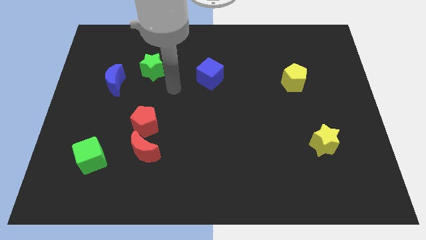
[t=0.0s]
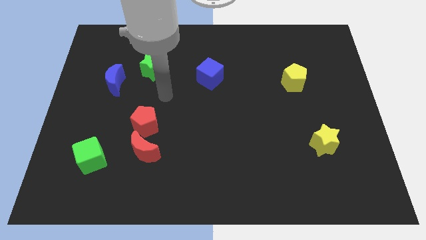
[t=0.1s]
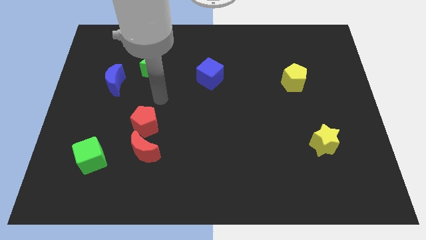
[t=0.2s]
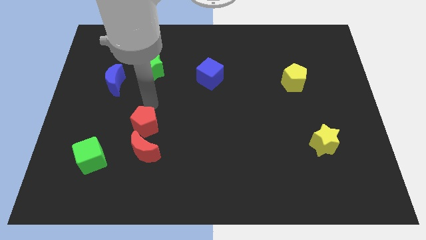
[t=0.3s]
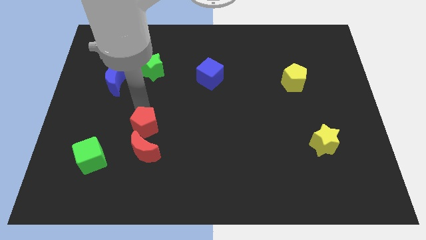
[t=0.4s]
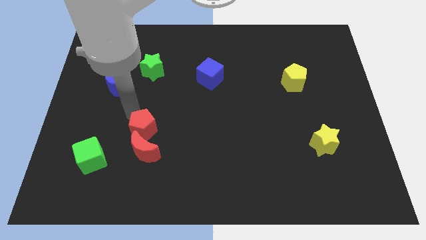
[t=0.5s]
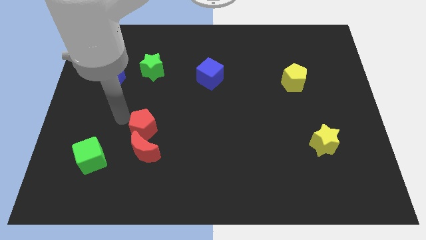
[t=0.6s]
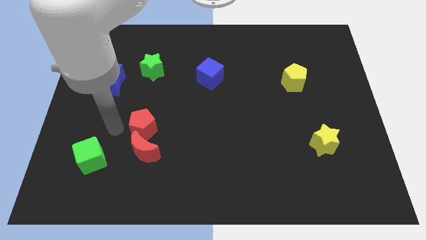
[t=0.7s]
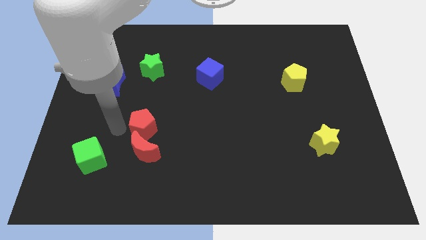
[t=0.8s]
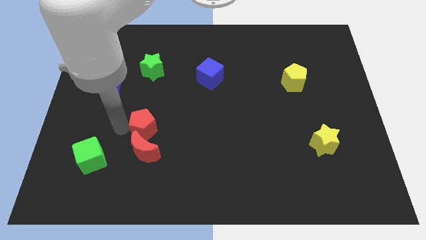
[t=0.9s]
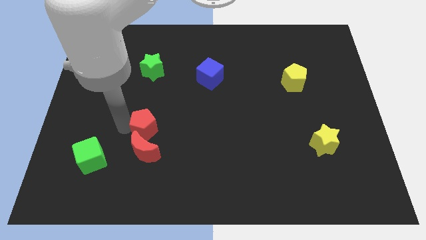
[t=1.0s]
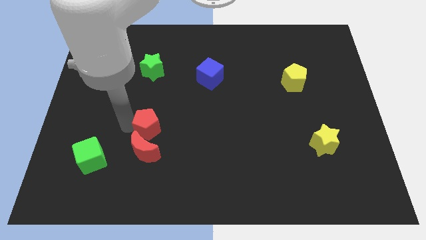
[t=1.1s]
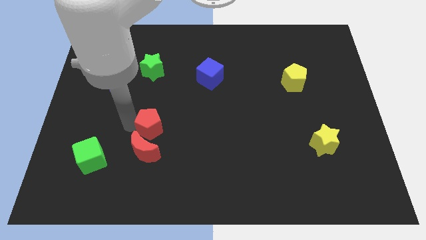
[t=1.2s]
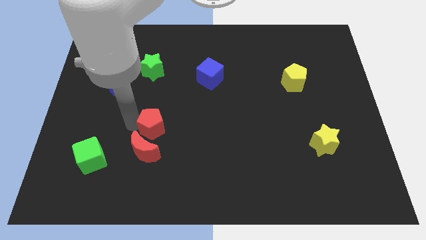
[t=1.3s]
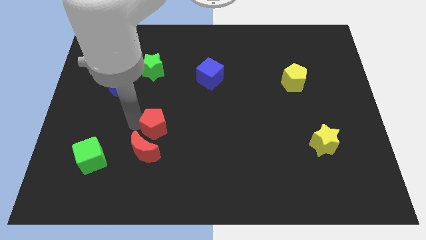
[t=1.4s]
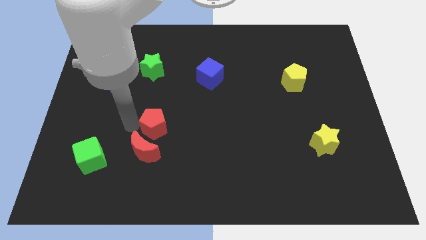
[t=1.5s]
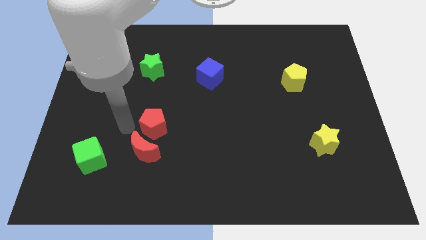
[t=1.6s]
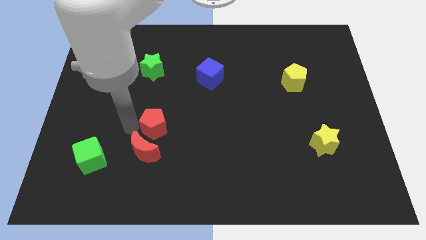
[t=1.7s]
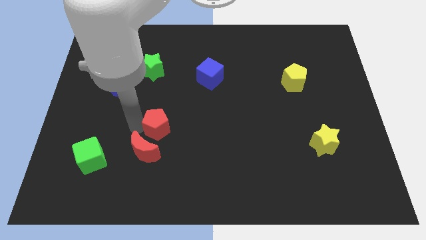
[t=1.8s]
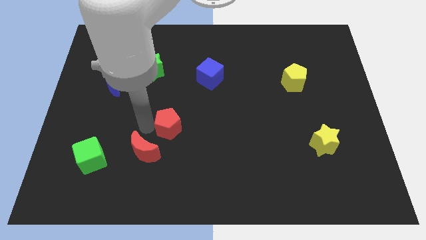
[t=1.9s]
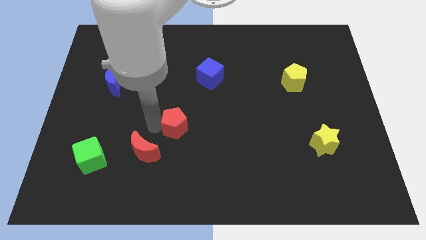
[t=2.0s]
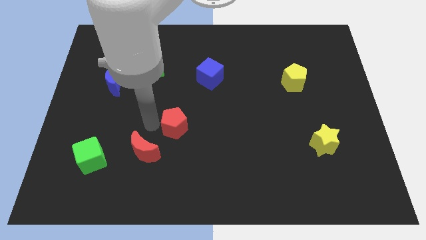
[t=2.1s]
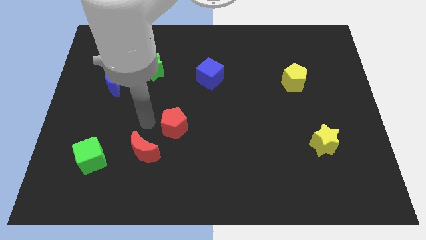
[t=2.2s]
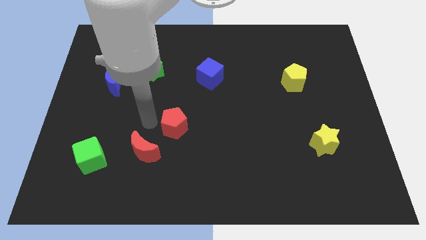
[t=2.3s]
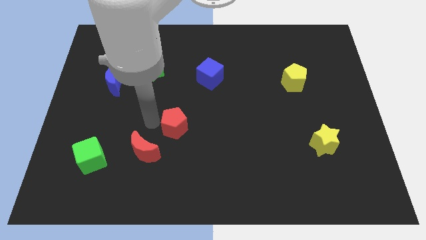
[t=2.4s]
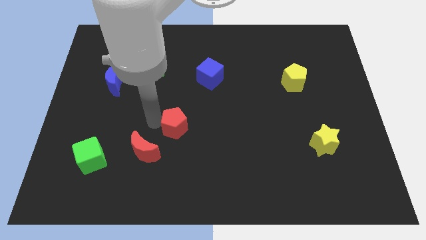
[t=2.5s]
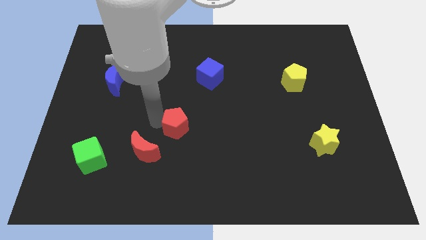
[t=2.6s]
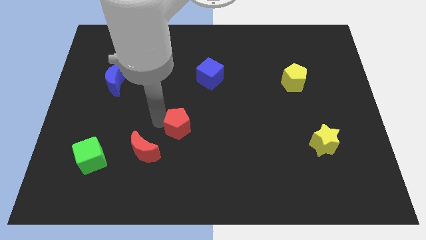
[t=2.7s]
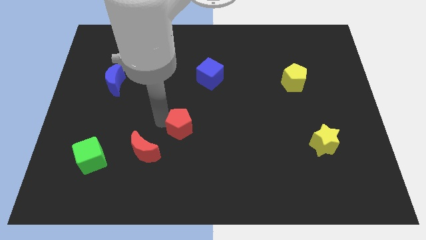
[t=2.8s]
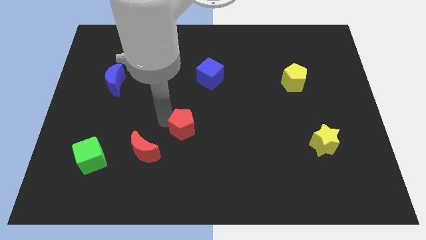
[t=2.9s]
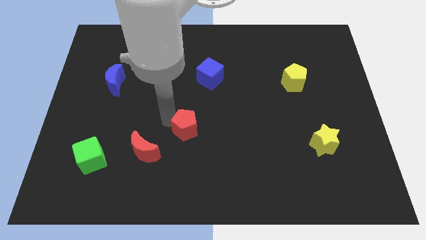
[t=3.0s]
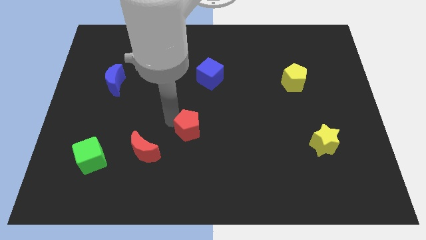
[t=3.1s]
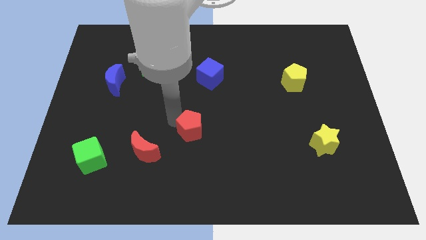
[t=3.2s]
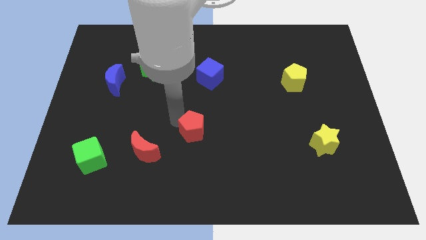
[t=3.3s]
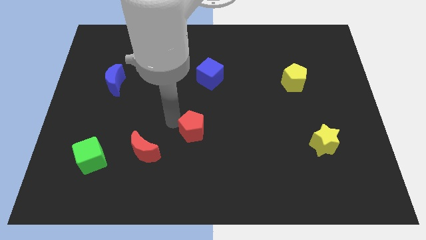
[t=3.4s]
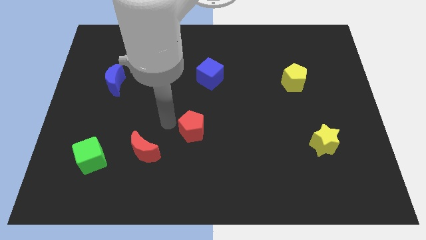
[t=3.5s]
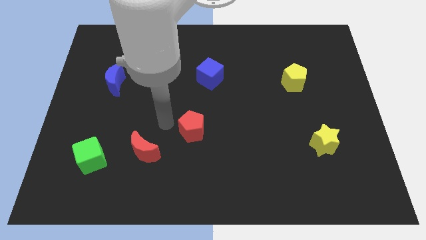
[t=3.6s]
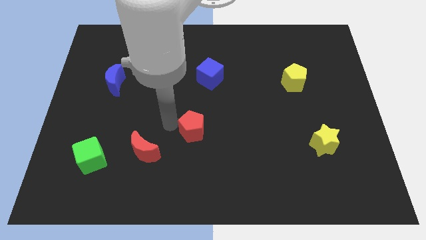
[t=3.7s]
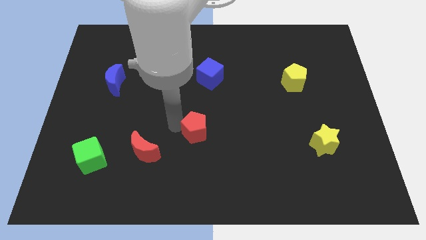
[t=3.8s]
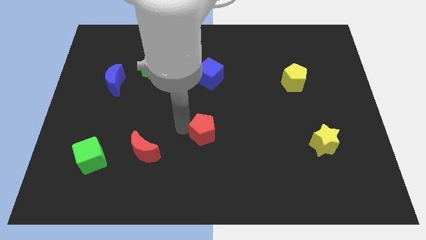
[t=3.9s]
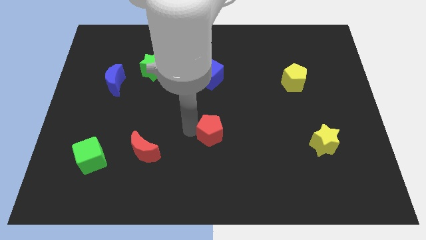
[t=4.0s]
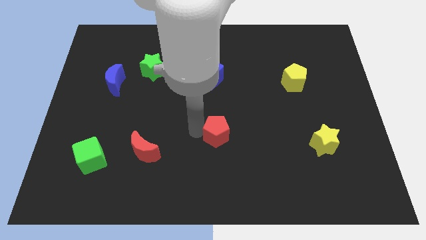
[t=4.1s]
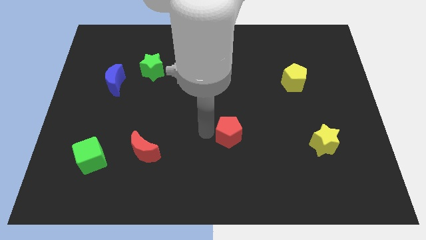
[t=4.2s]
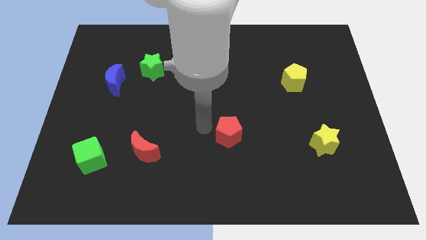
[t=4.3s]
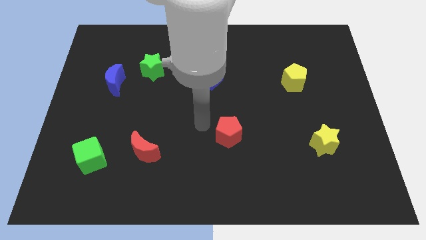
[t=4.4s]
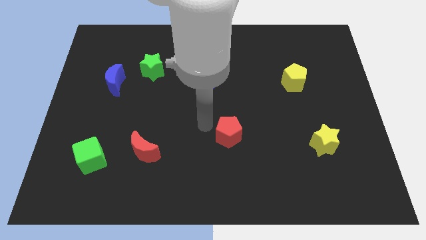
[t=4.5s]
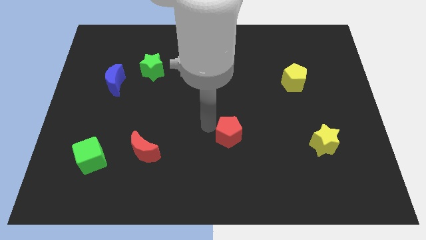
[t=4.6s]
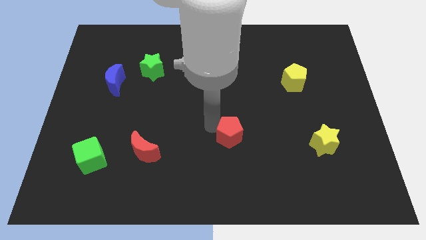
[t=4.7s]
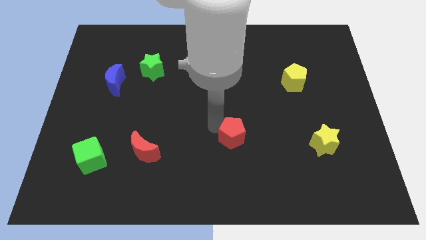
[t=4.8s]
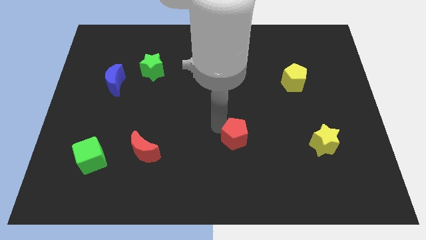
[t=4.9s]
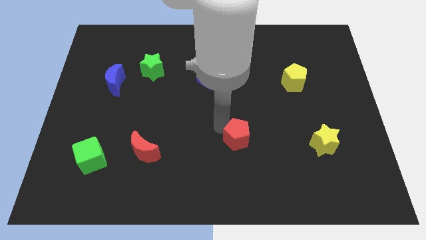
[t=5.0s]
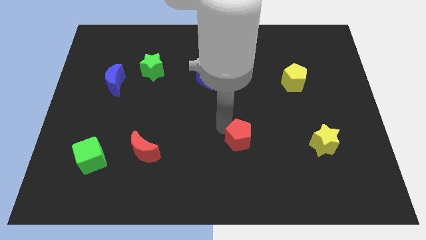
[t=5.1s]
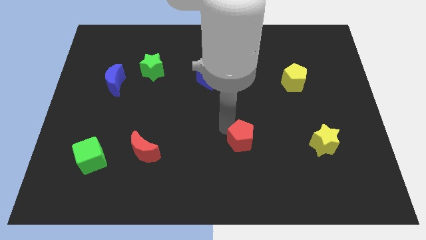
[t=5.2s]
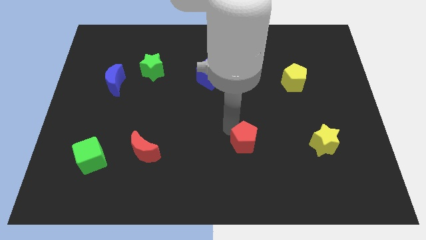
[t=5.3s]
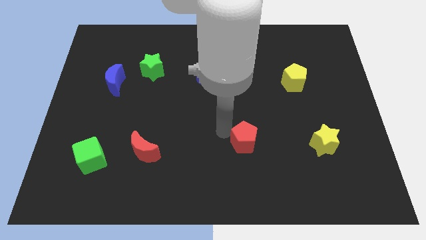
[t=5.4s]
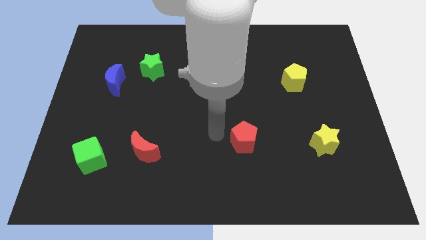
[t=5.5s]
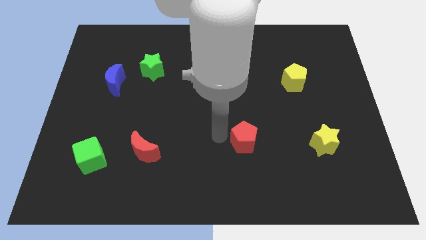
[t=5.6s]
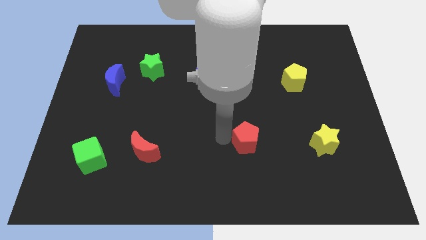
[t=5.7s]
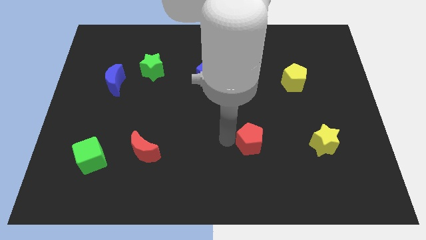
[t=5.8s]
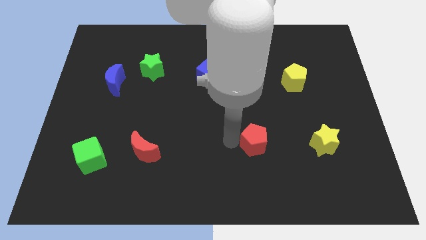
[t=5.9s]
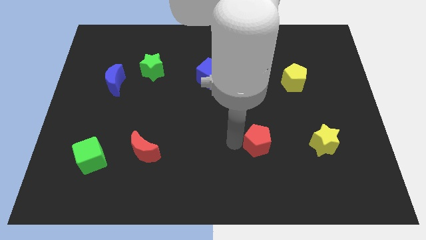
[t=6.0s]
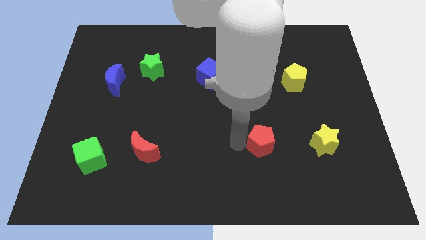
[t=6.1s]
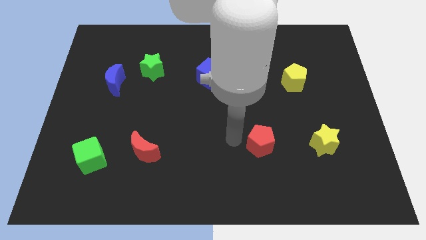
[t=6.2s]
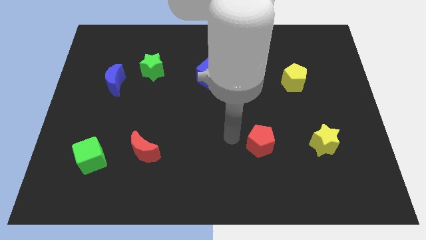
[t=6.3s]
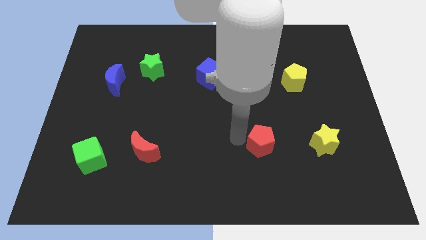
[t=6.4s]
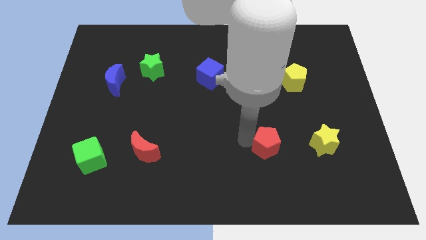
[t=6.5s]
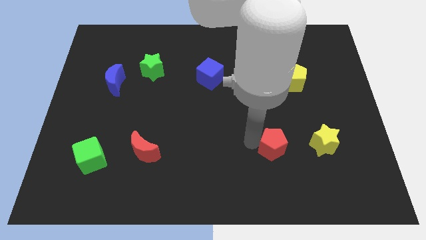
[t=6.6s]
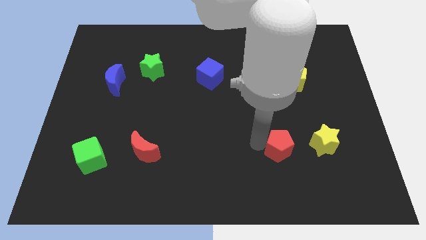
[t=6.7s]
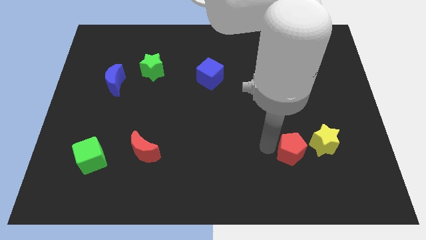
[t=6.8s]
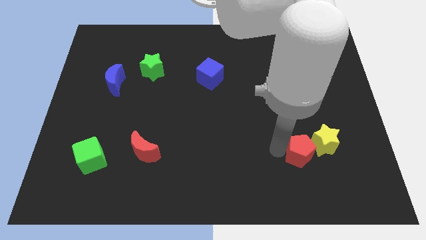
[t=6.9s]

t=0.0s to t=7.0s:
put the red pentagon to the yellow star

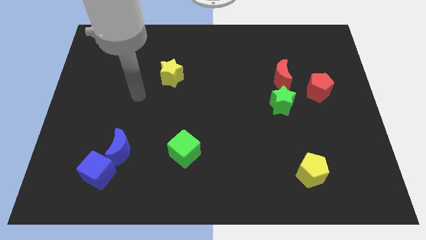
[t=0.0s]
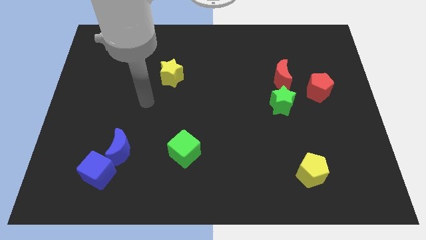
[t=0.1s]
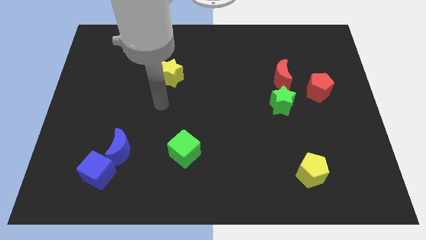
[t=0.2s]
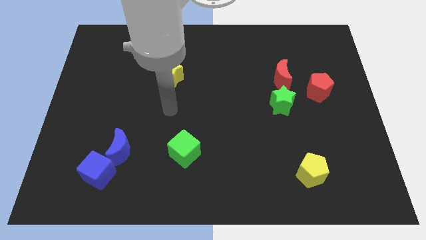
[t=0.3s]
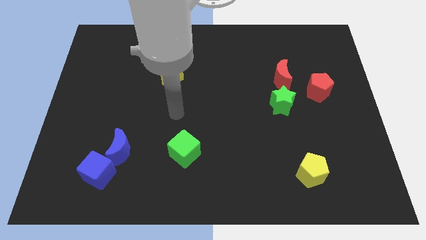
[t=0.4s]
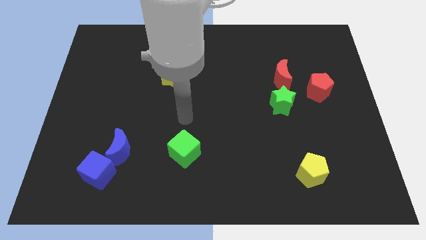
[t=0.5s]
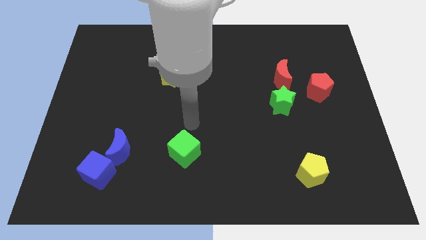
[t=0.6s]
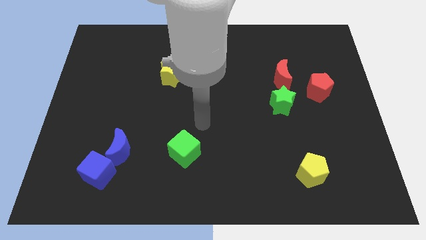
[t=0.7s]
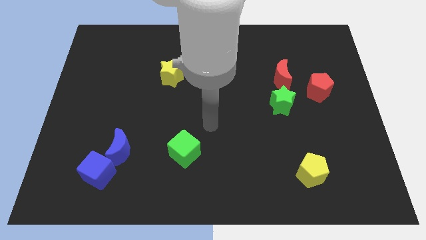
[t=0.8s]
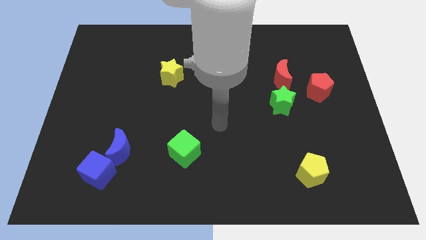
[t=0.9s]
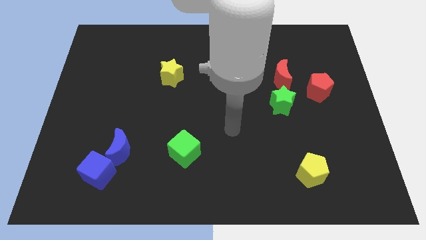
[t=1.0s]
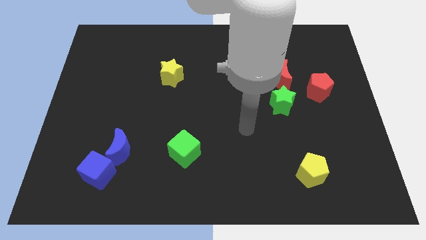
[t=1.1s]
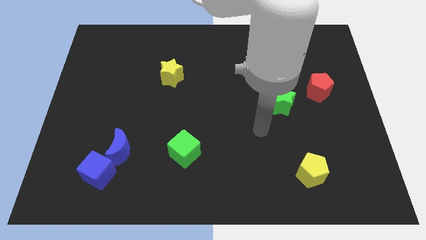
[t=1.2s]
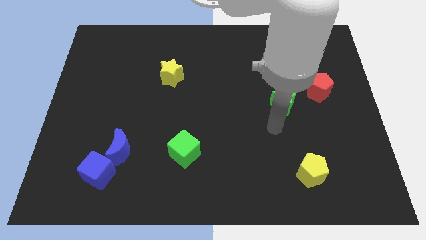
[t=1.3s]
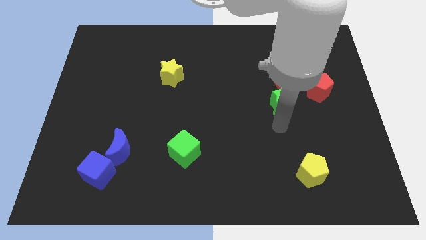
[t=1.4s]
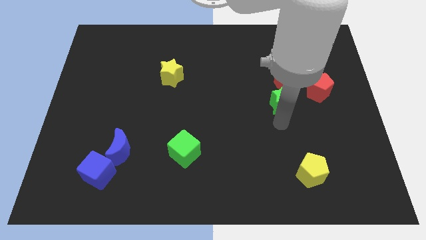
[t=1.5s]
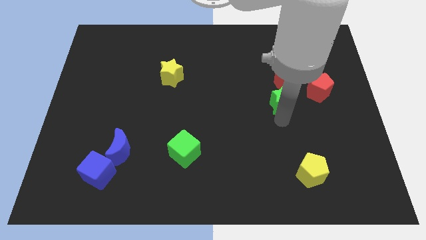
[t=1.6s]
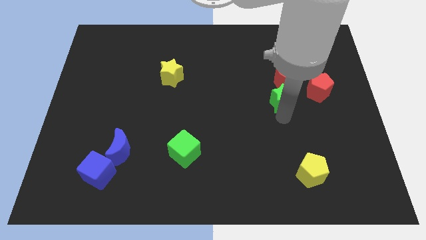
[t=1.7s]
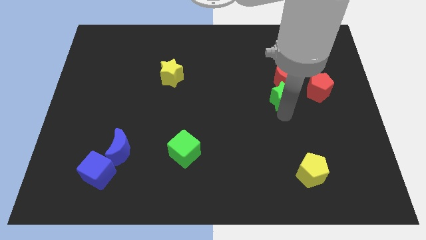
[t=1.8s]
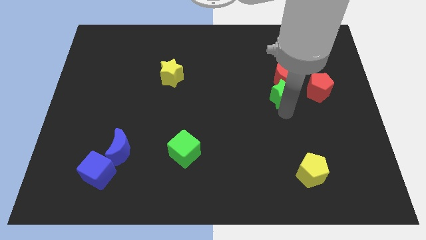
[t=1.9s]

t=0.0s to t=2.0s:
push the green star towards the red moon
